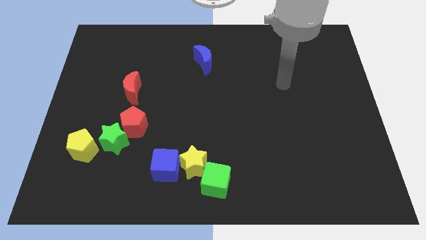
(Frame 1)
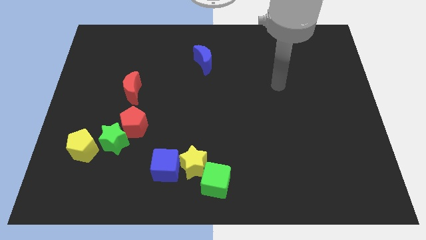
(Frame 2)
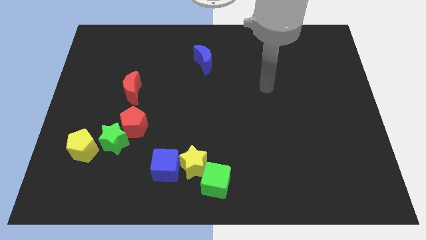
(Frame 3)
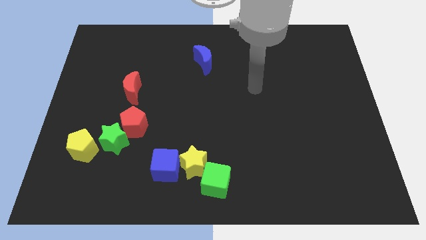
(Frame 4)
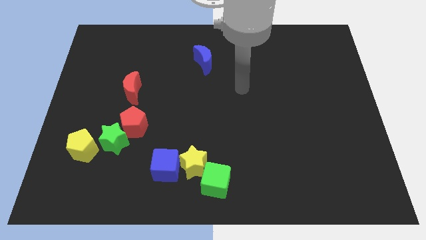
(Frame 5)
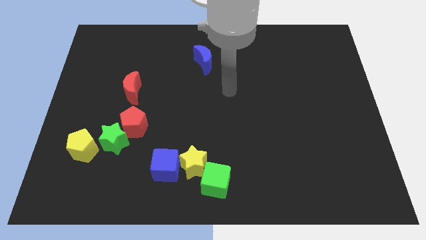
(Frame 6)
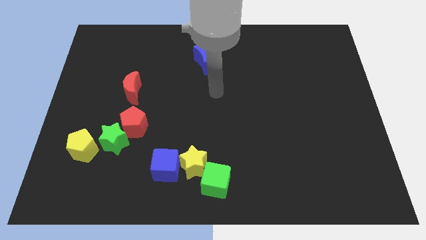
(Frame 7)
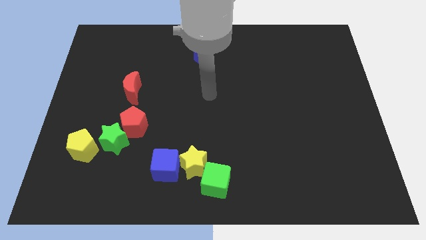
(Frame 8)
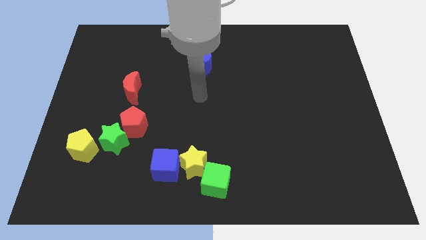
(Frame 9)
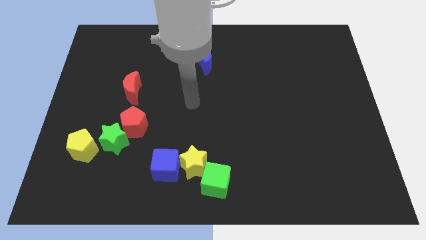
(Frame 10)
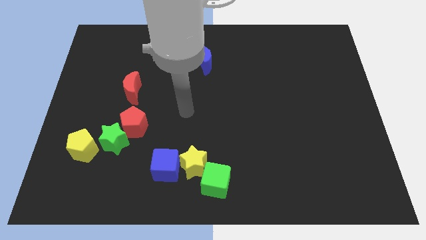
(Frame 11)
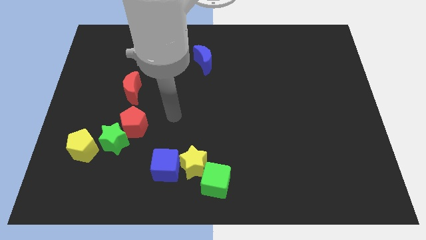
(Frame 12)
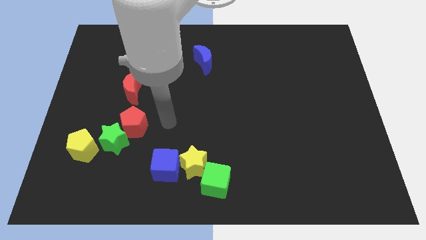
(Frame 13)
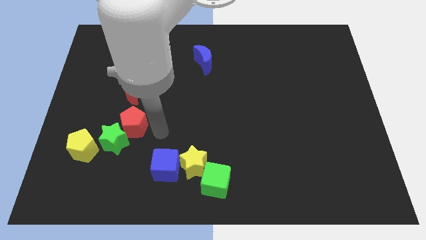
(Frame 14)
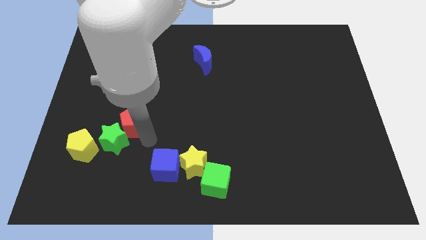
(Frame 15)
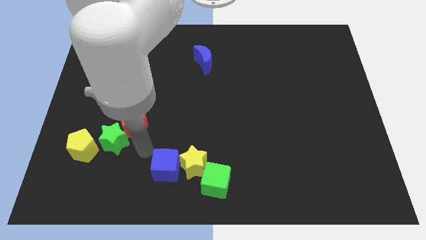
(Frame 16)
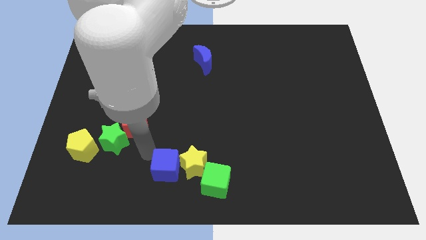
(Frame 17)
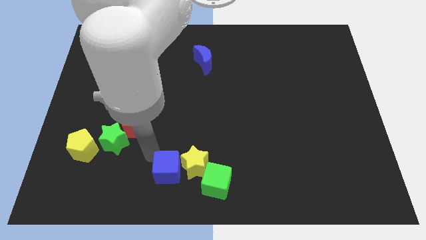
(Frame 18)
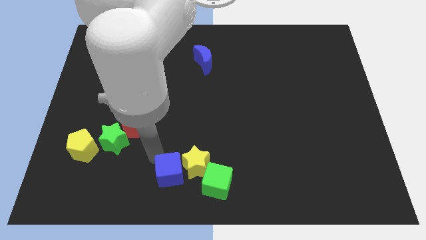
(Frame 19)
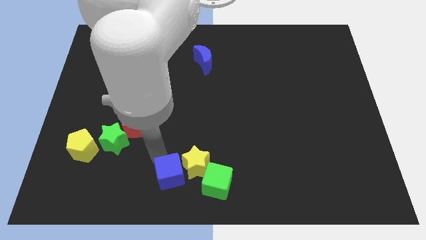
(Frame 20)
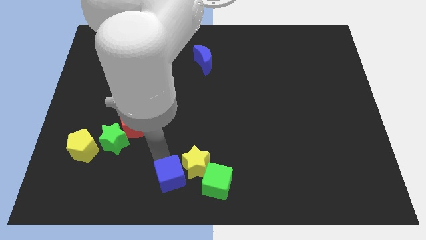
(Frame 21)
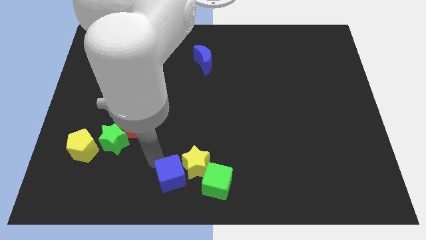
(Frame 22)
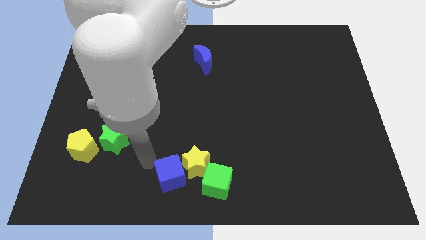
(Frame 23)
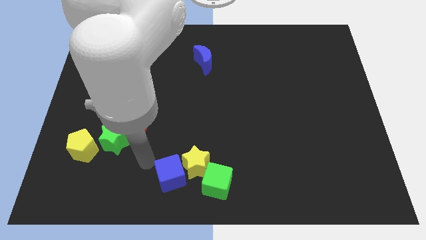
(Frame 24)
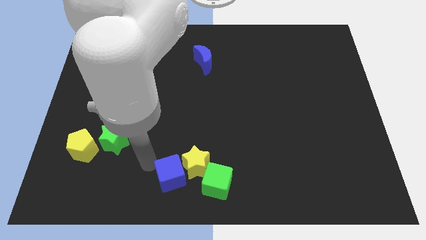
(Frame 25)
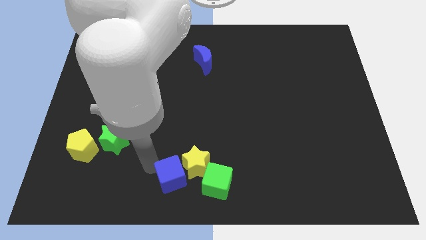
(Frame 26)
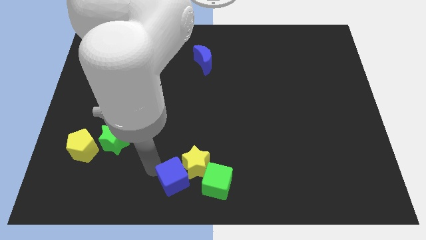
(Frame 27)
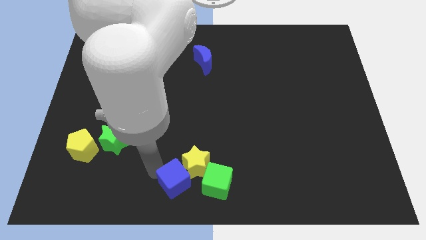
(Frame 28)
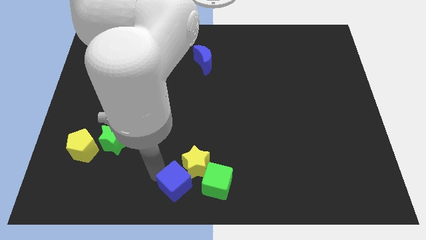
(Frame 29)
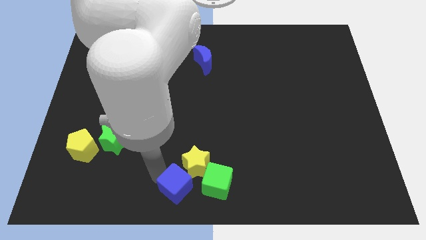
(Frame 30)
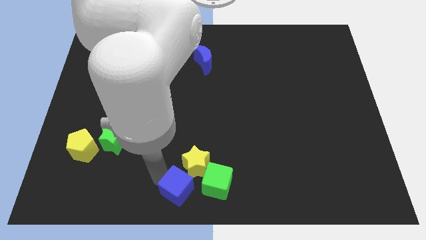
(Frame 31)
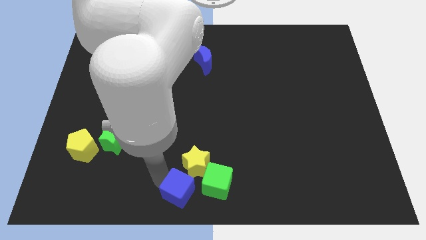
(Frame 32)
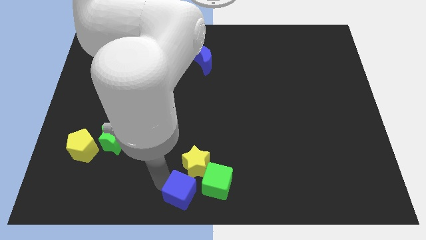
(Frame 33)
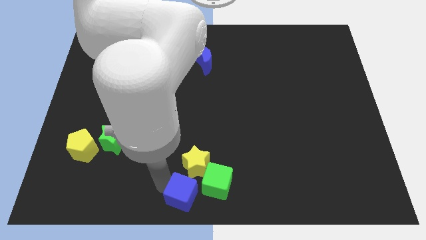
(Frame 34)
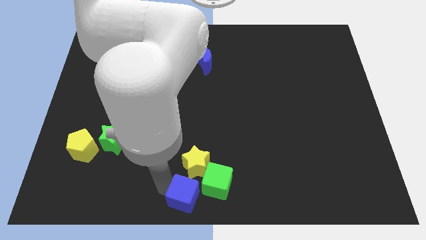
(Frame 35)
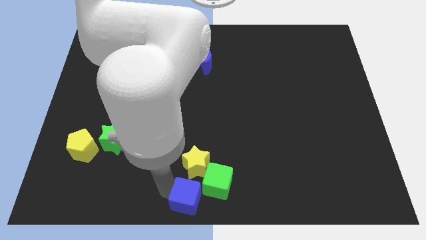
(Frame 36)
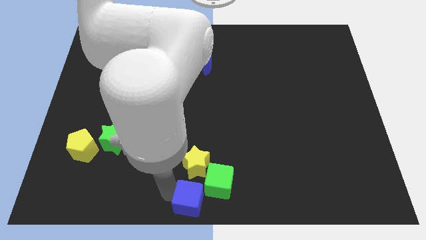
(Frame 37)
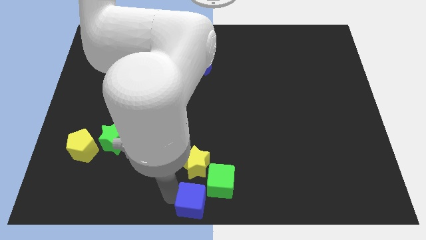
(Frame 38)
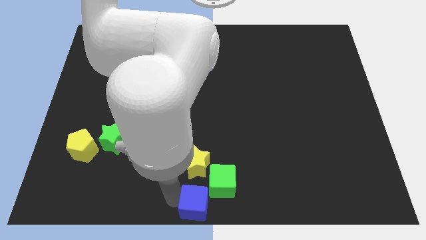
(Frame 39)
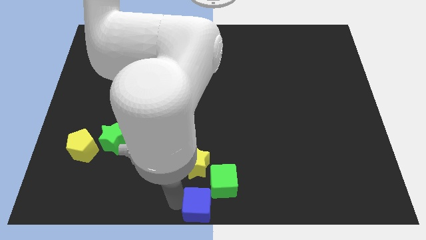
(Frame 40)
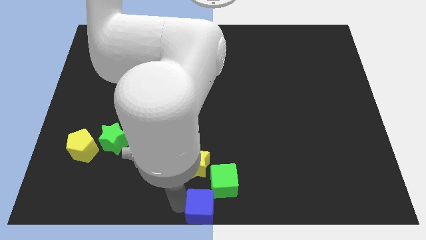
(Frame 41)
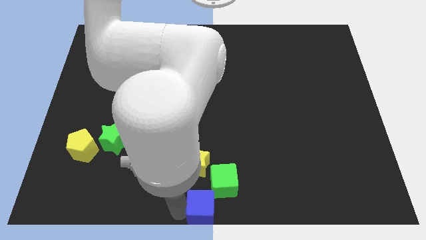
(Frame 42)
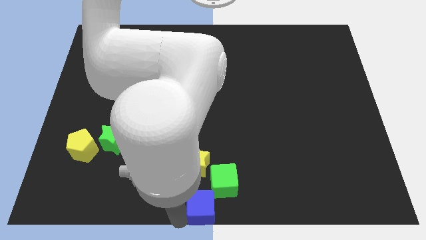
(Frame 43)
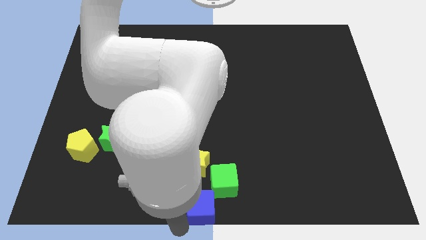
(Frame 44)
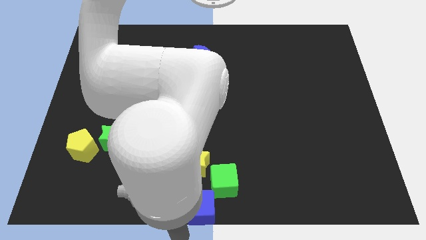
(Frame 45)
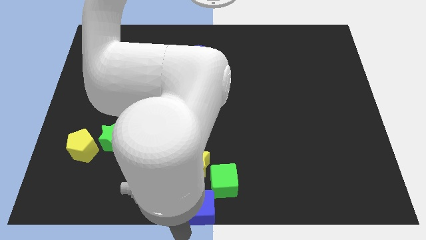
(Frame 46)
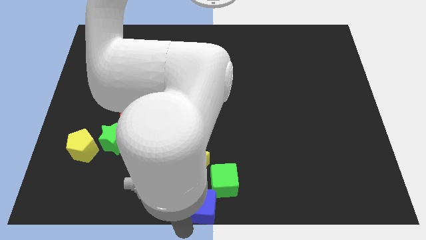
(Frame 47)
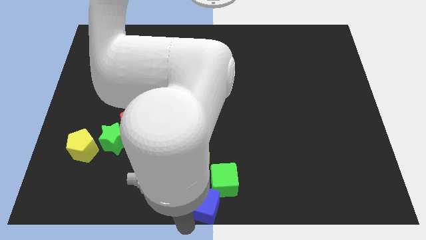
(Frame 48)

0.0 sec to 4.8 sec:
slide the blue cube to the green cube

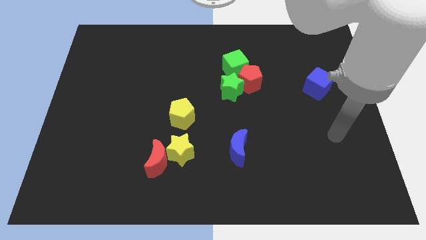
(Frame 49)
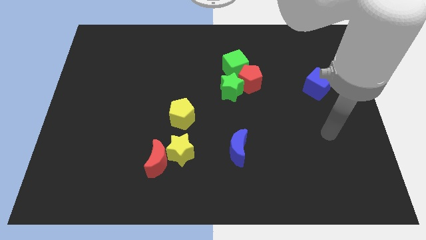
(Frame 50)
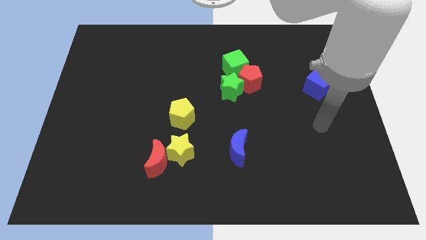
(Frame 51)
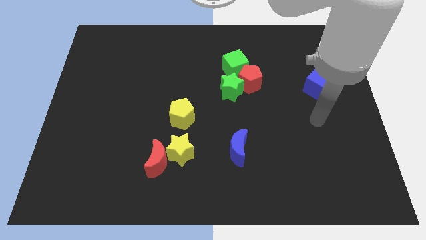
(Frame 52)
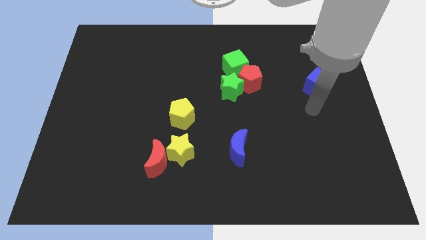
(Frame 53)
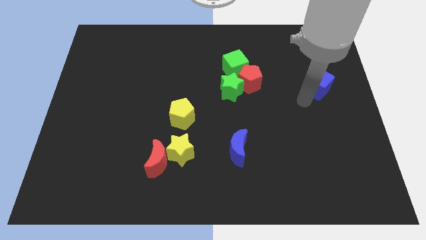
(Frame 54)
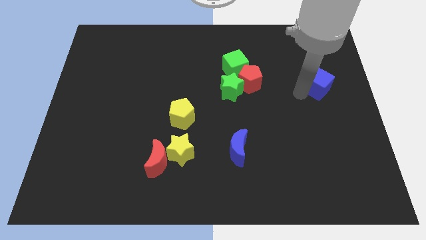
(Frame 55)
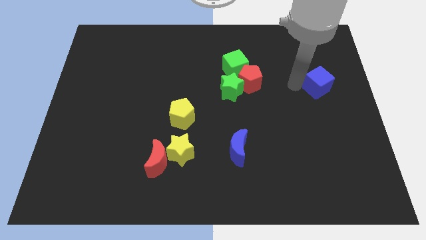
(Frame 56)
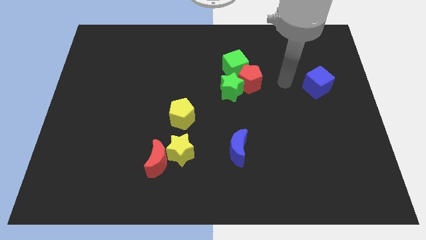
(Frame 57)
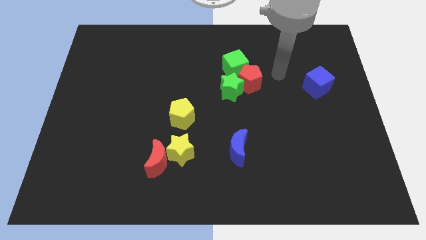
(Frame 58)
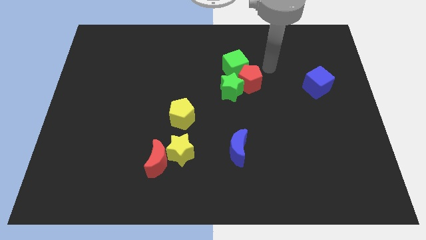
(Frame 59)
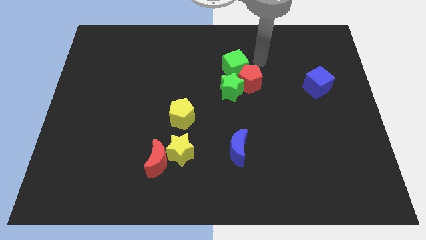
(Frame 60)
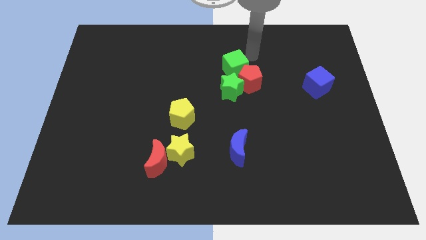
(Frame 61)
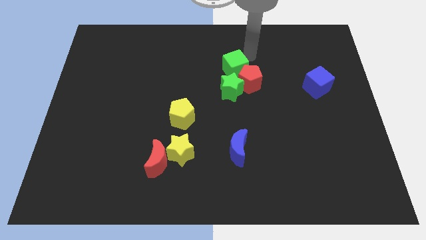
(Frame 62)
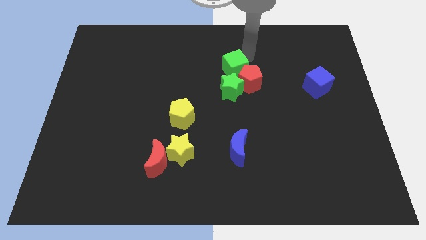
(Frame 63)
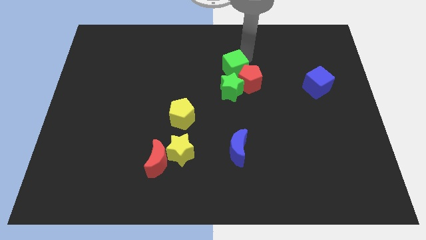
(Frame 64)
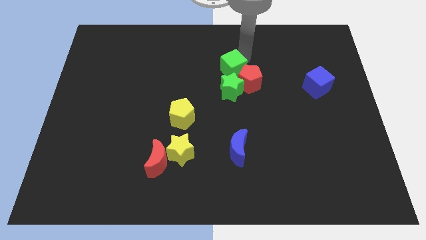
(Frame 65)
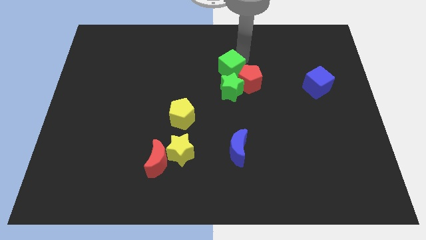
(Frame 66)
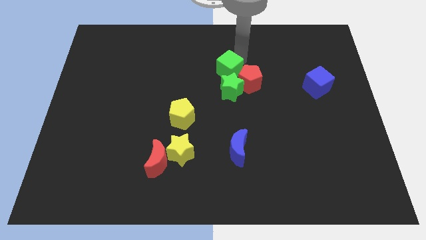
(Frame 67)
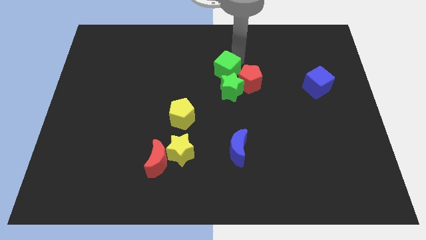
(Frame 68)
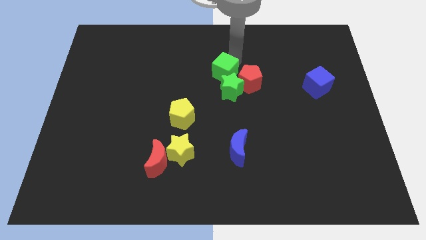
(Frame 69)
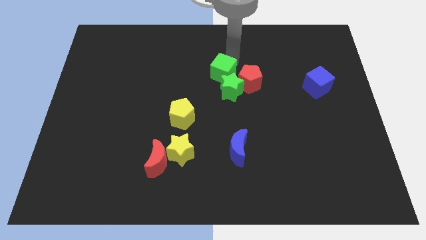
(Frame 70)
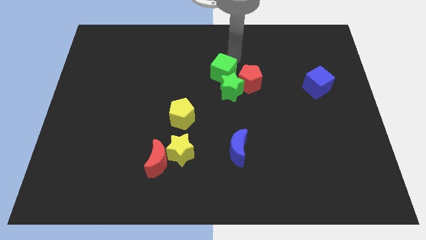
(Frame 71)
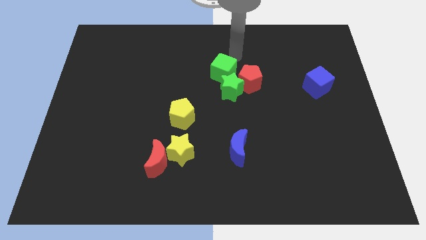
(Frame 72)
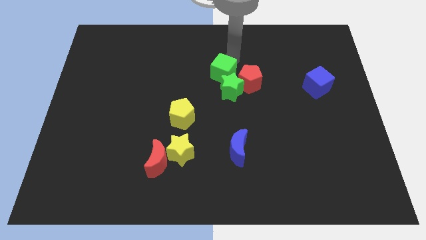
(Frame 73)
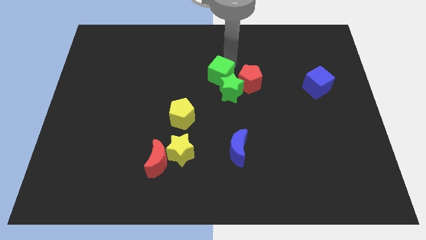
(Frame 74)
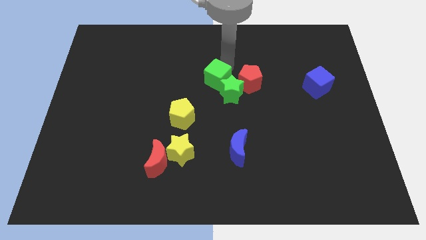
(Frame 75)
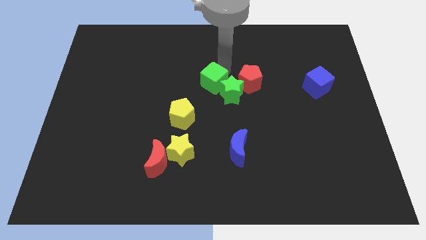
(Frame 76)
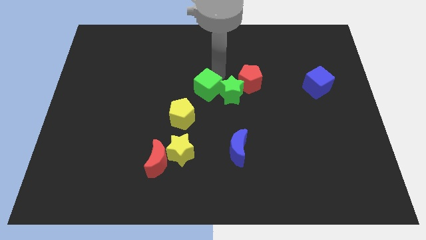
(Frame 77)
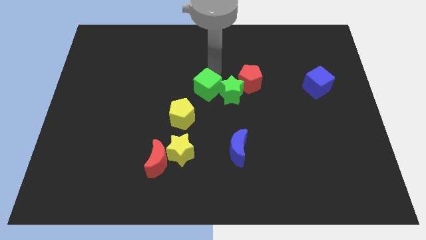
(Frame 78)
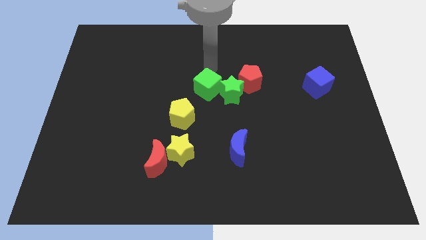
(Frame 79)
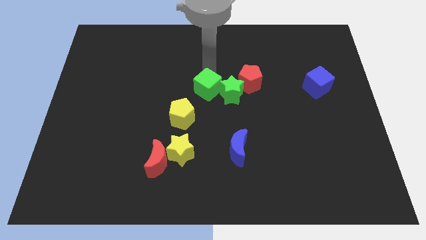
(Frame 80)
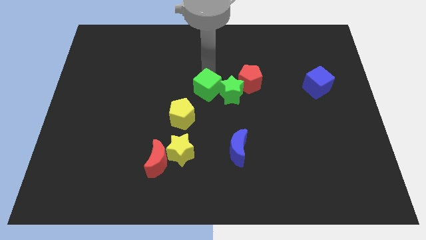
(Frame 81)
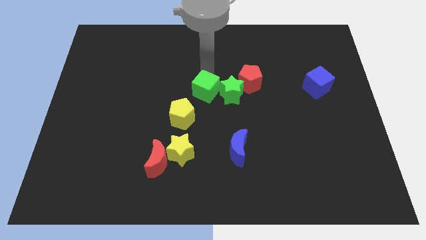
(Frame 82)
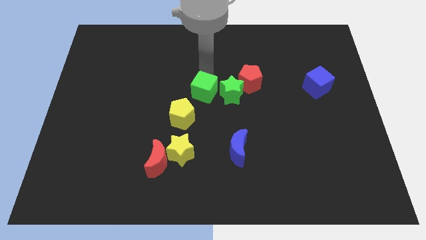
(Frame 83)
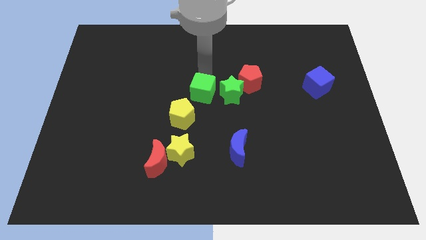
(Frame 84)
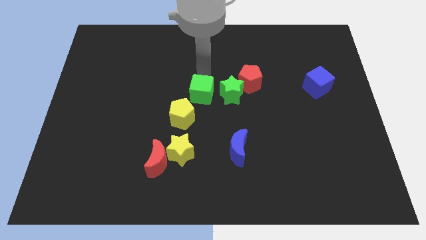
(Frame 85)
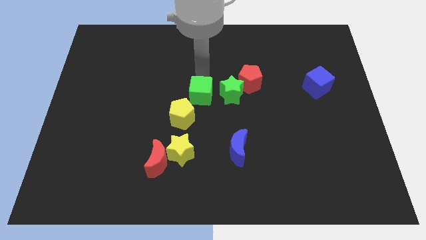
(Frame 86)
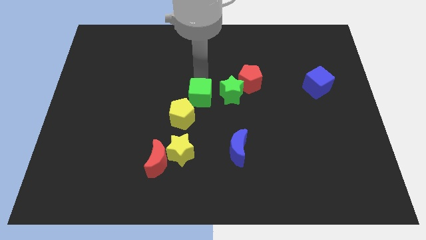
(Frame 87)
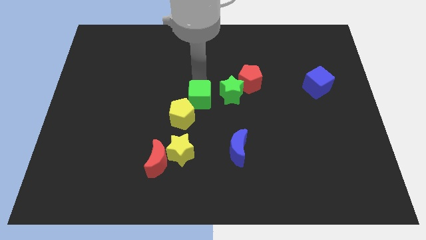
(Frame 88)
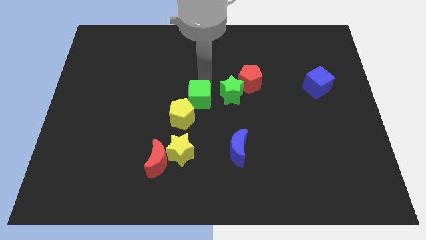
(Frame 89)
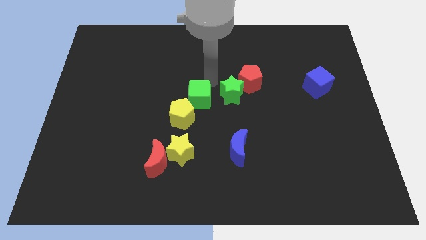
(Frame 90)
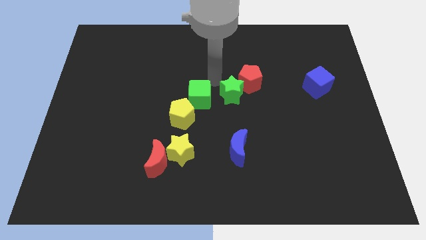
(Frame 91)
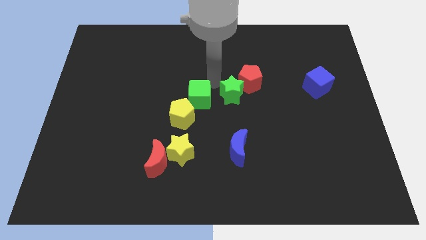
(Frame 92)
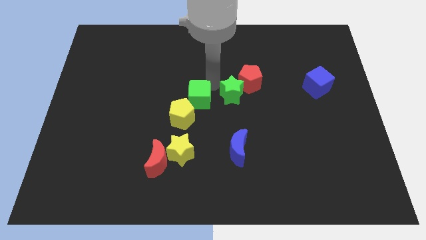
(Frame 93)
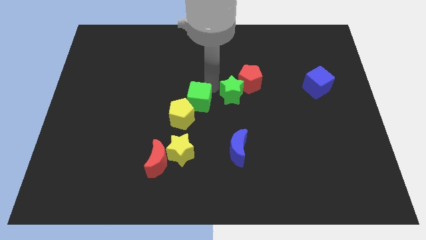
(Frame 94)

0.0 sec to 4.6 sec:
put the green cube close to the yellow pentagon
